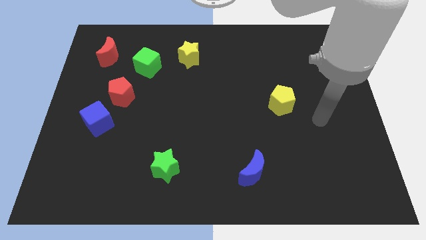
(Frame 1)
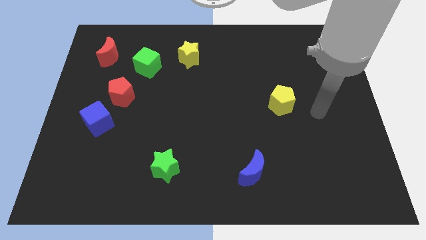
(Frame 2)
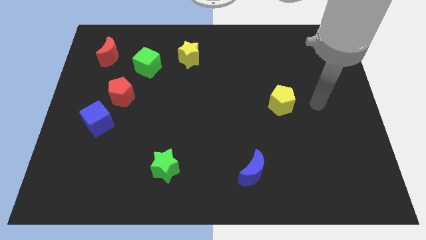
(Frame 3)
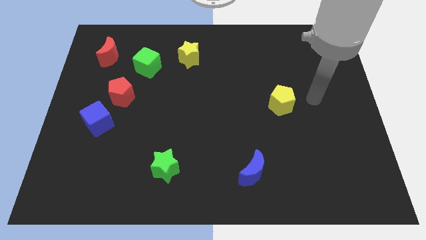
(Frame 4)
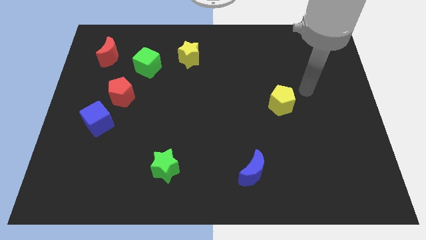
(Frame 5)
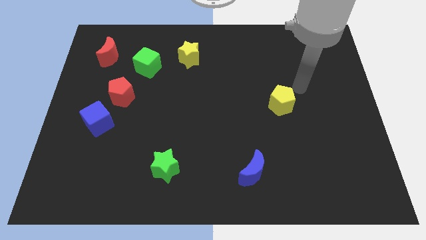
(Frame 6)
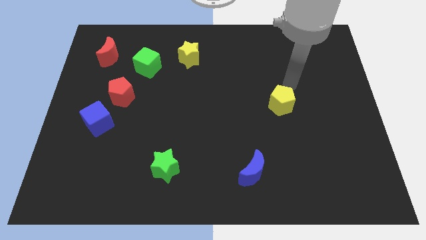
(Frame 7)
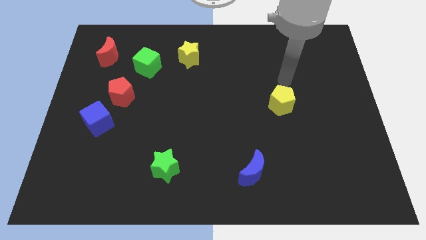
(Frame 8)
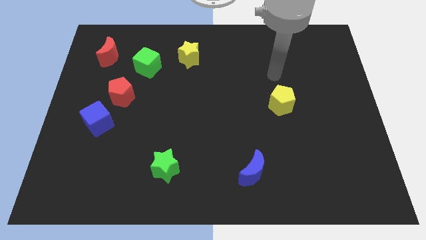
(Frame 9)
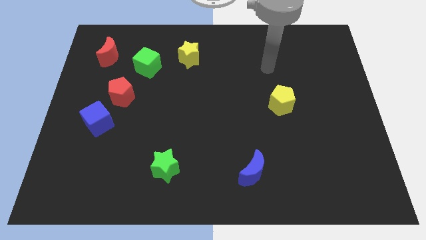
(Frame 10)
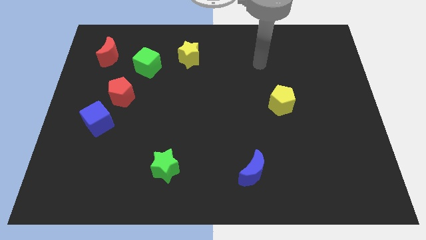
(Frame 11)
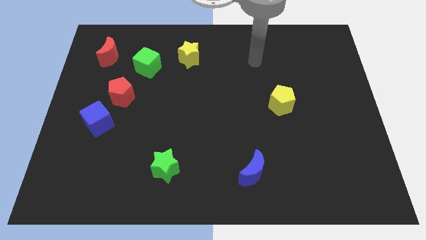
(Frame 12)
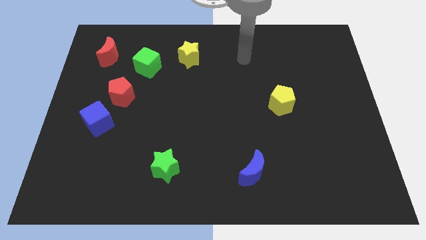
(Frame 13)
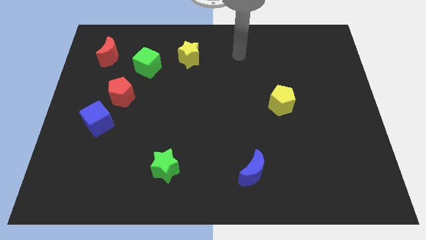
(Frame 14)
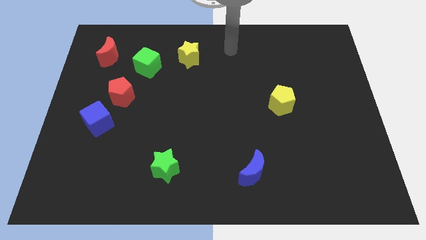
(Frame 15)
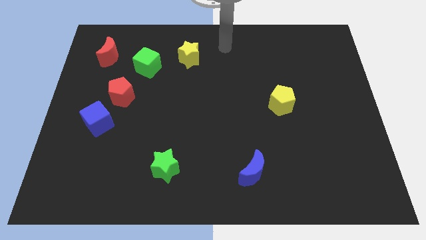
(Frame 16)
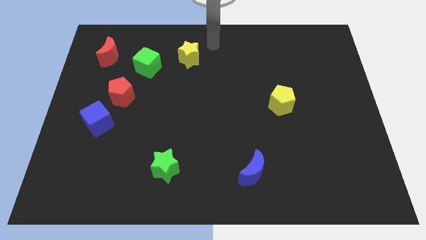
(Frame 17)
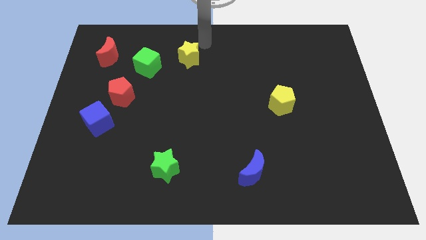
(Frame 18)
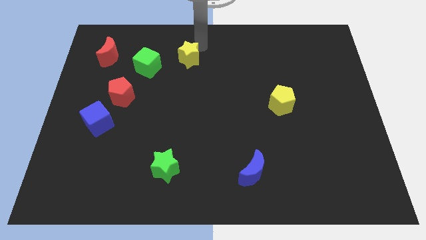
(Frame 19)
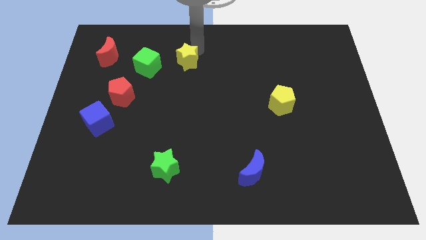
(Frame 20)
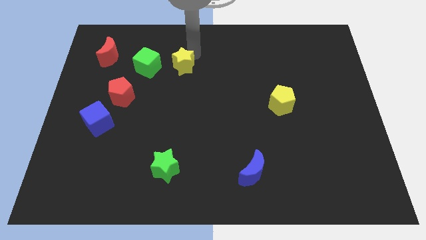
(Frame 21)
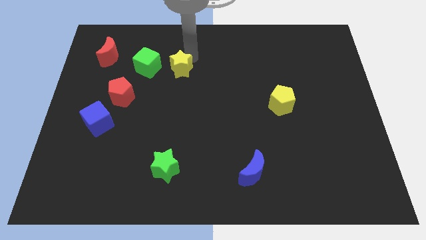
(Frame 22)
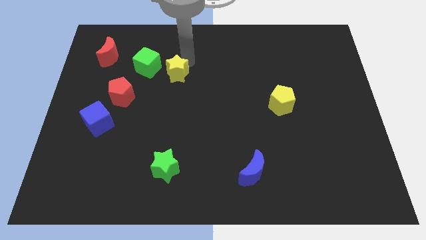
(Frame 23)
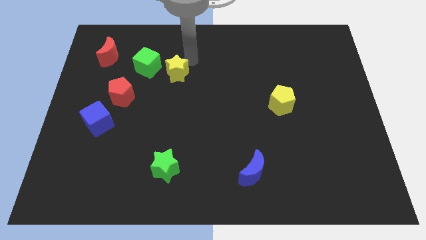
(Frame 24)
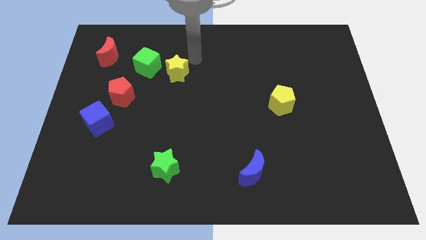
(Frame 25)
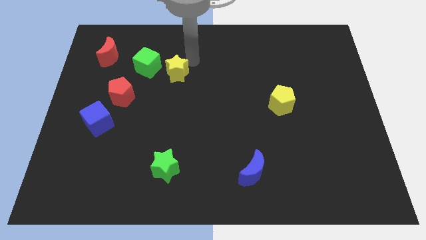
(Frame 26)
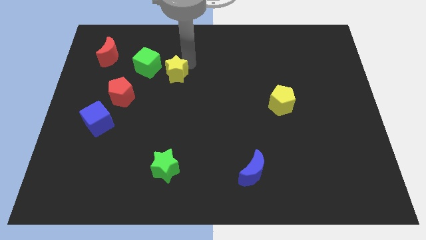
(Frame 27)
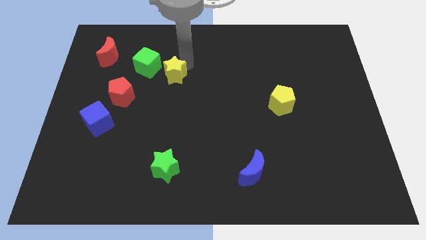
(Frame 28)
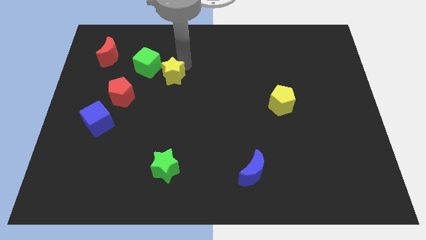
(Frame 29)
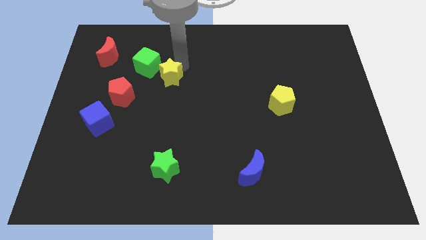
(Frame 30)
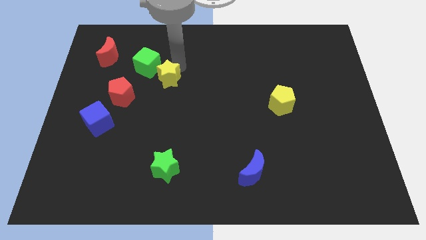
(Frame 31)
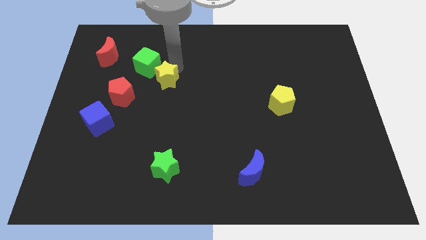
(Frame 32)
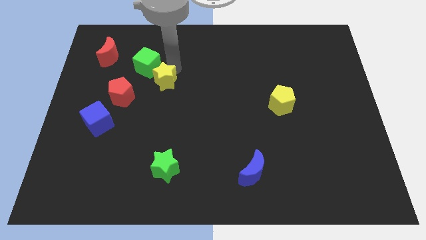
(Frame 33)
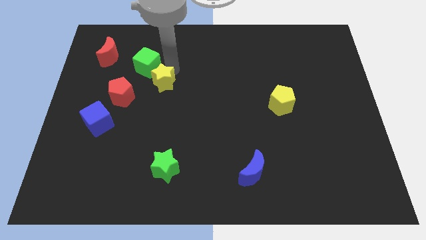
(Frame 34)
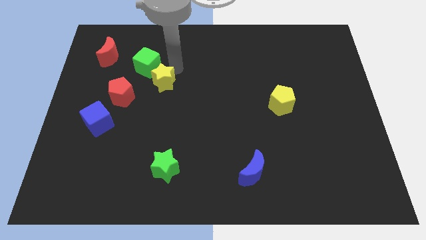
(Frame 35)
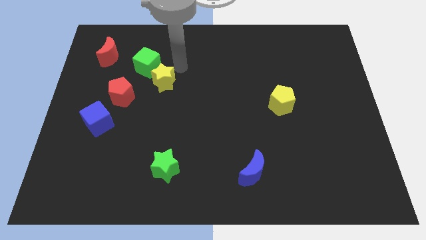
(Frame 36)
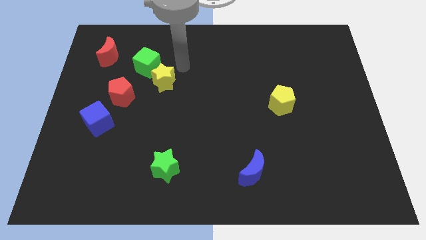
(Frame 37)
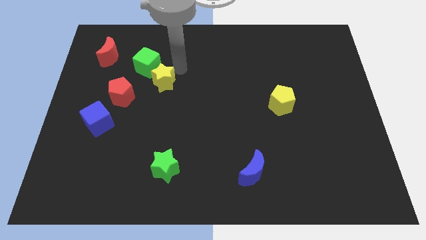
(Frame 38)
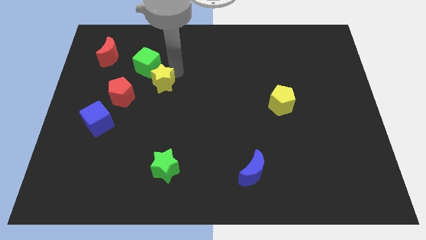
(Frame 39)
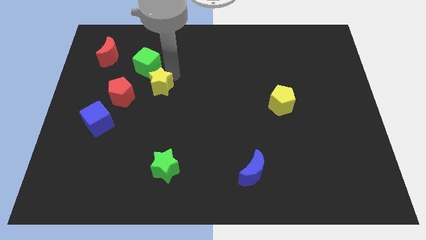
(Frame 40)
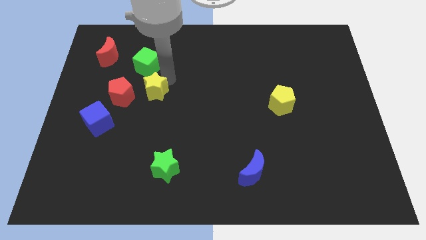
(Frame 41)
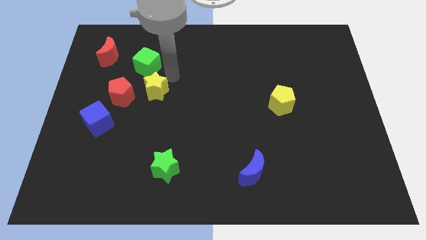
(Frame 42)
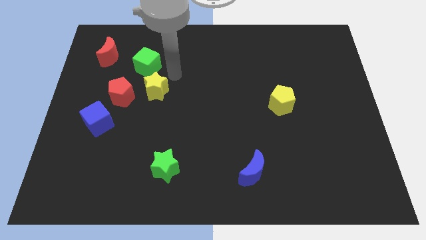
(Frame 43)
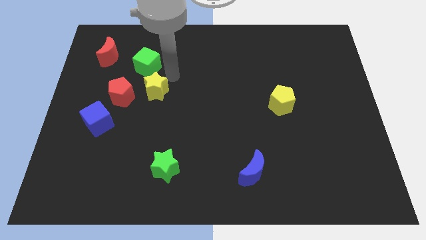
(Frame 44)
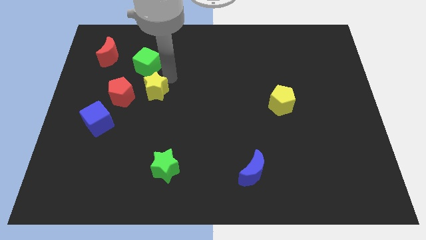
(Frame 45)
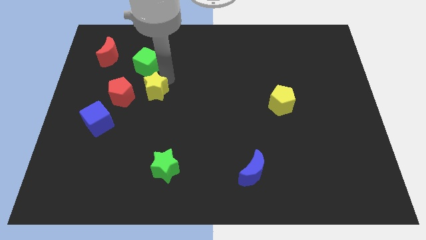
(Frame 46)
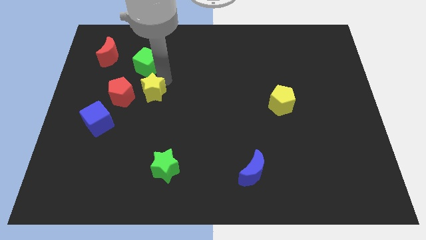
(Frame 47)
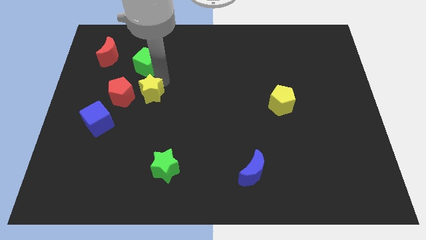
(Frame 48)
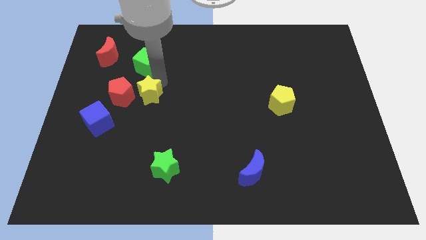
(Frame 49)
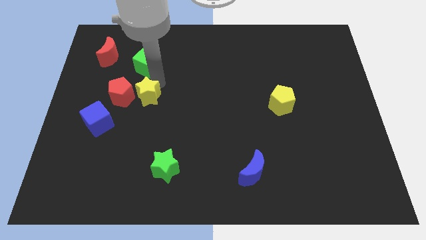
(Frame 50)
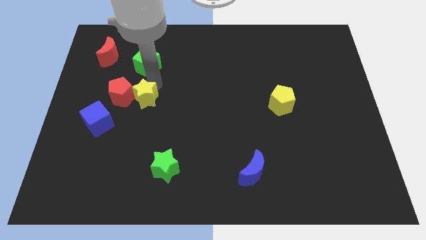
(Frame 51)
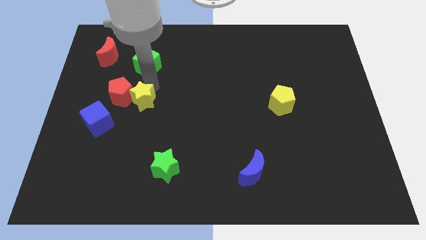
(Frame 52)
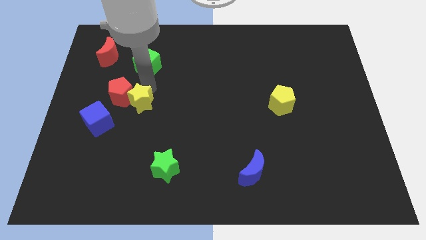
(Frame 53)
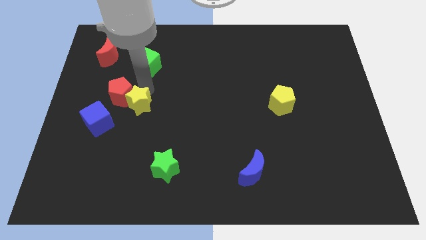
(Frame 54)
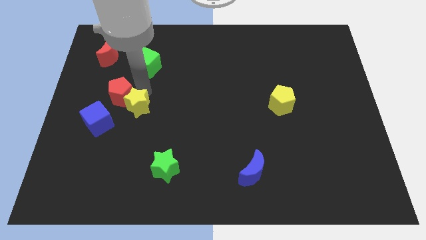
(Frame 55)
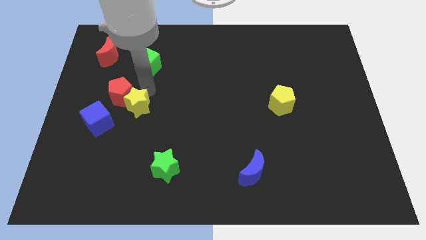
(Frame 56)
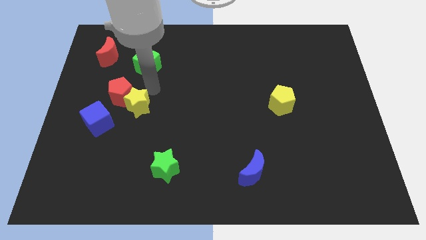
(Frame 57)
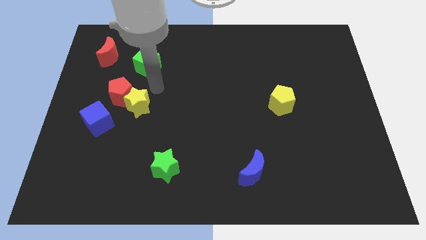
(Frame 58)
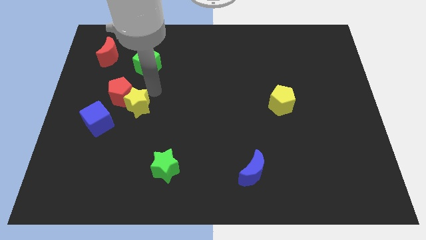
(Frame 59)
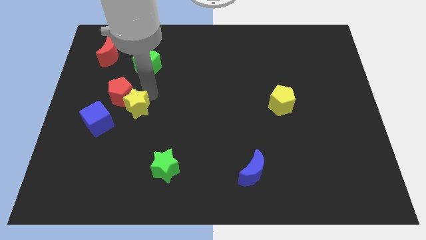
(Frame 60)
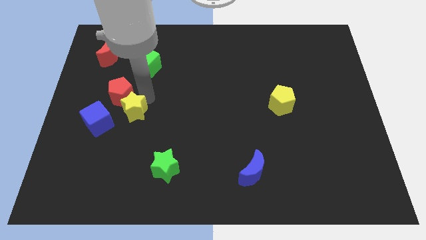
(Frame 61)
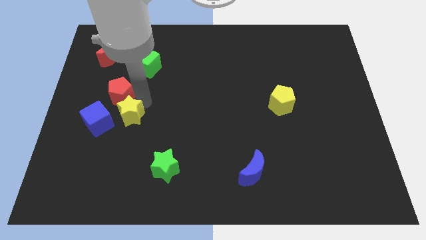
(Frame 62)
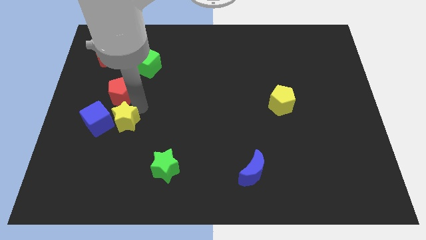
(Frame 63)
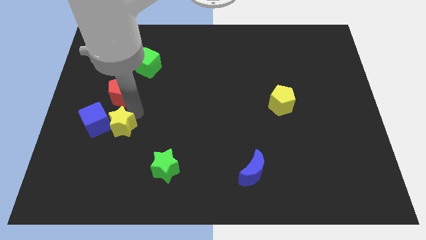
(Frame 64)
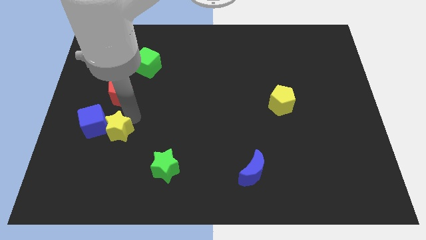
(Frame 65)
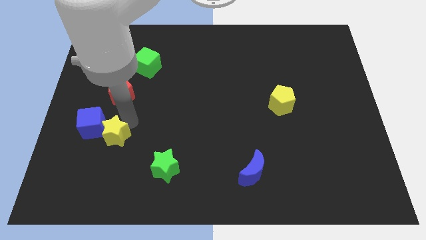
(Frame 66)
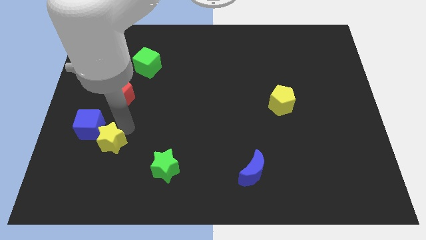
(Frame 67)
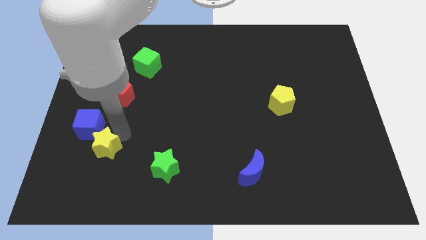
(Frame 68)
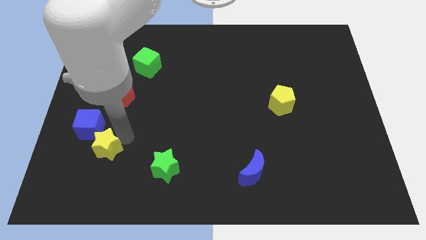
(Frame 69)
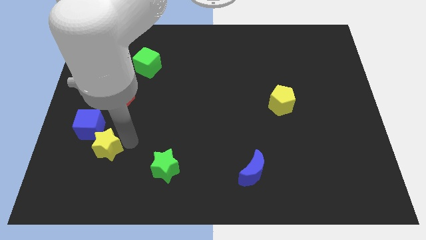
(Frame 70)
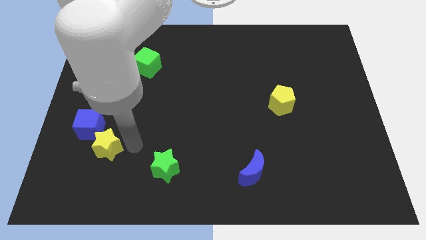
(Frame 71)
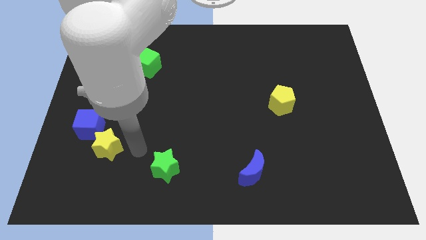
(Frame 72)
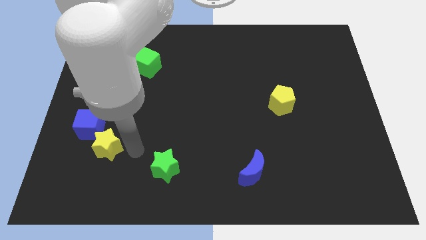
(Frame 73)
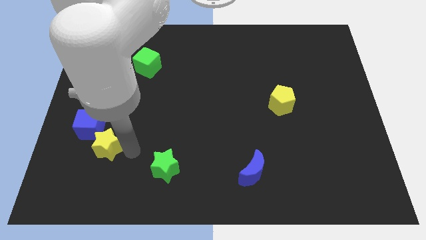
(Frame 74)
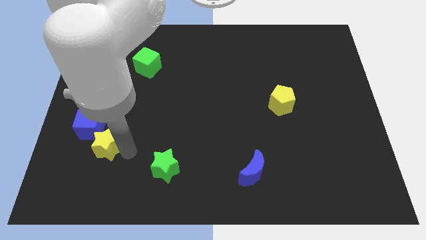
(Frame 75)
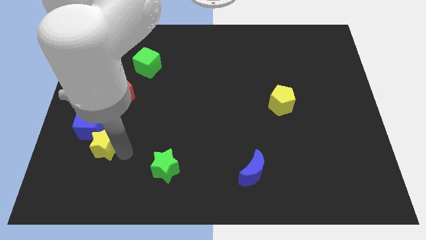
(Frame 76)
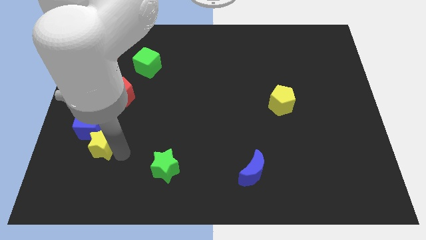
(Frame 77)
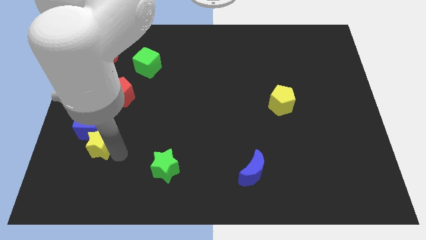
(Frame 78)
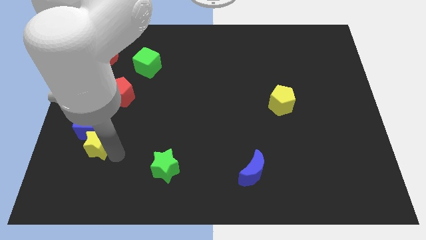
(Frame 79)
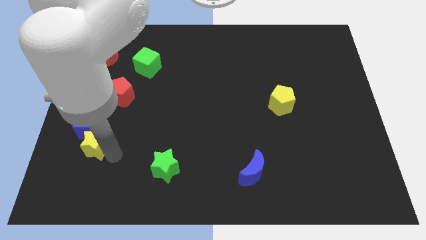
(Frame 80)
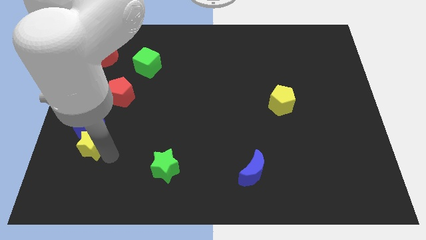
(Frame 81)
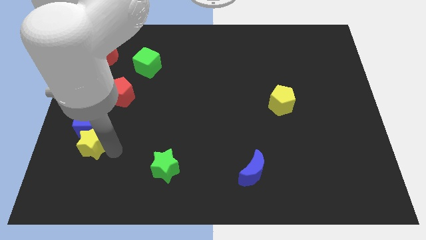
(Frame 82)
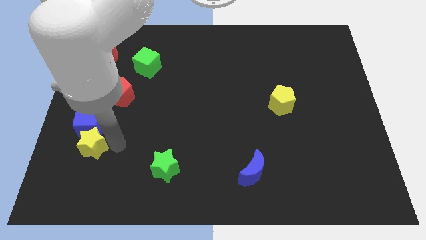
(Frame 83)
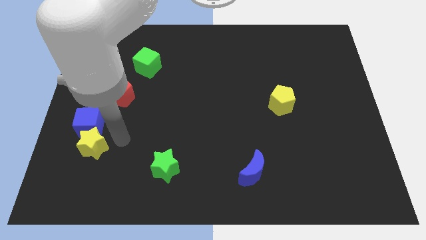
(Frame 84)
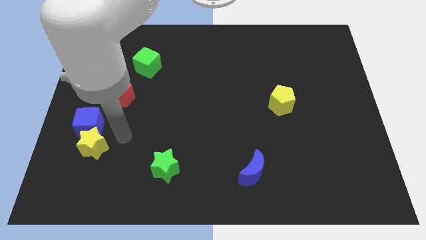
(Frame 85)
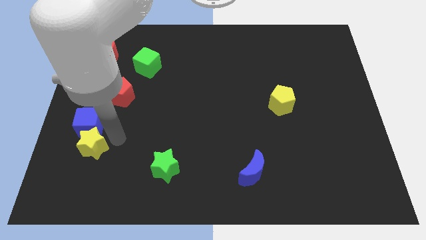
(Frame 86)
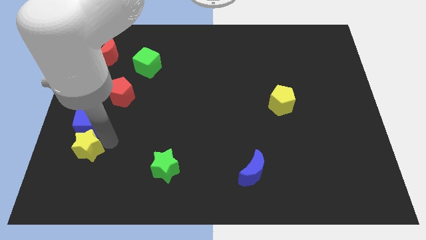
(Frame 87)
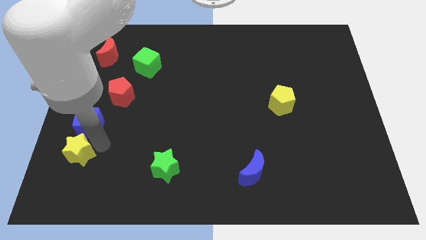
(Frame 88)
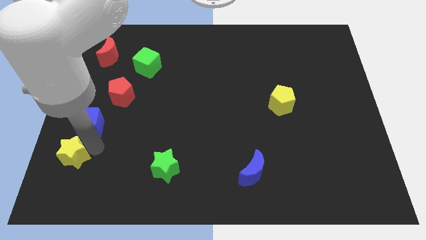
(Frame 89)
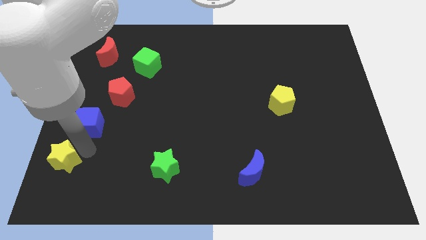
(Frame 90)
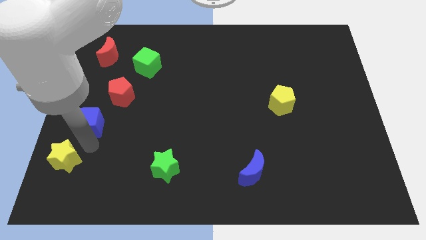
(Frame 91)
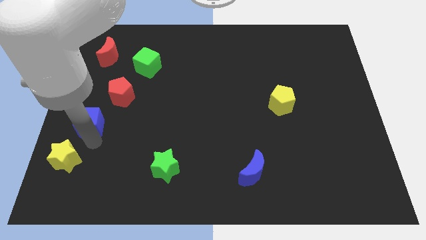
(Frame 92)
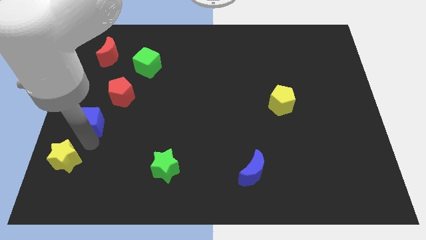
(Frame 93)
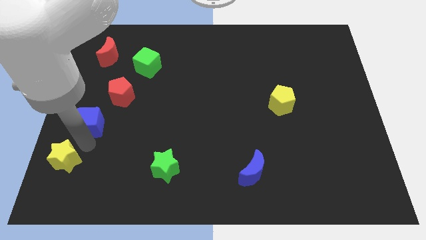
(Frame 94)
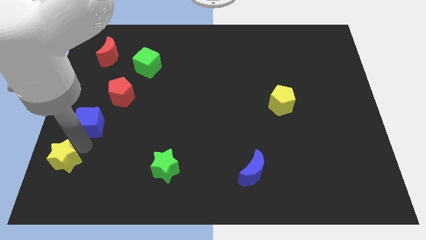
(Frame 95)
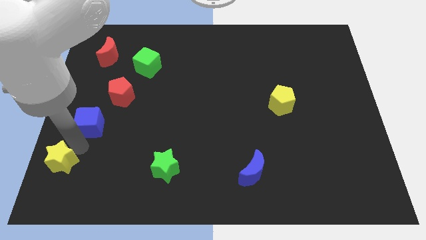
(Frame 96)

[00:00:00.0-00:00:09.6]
slide the yellow star to the bottom left
